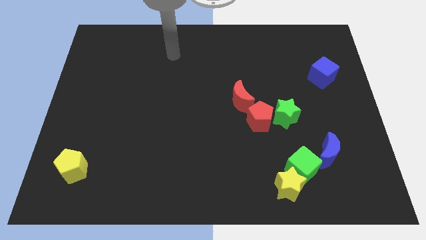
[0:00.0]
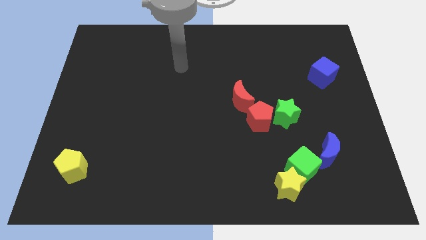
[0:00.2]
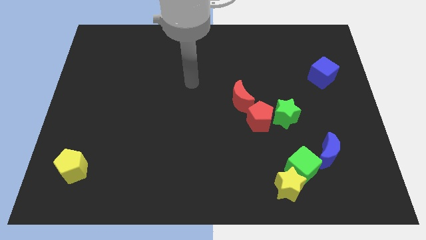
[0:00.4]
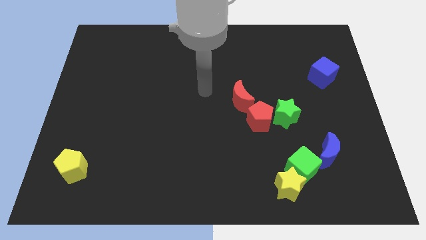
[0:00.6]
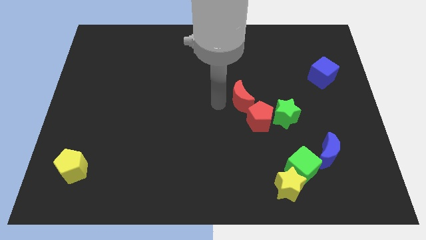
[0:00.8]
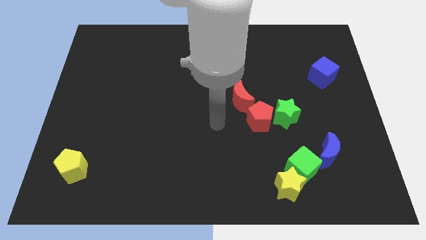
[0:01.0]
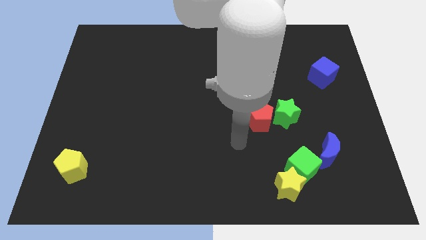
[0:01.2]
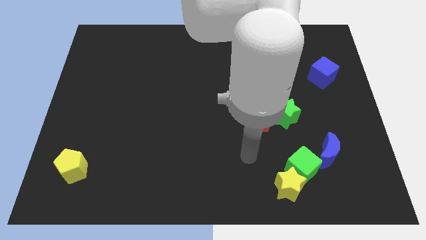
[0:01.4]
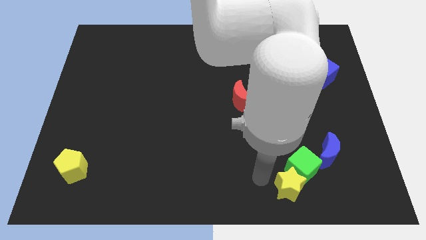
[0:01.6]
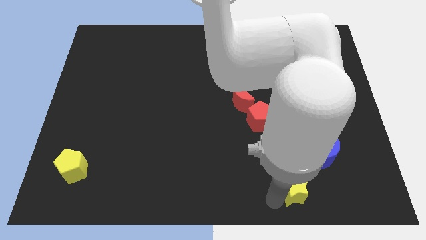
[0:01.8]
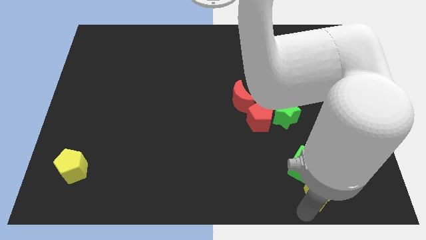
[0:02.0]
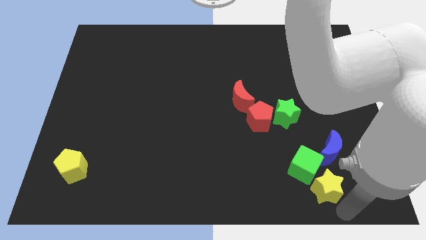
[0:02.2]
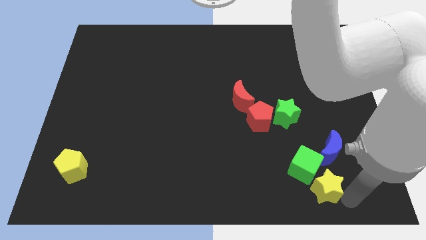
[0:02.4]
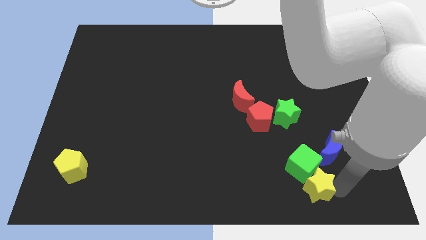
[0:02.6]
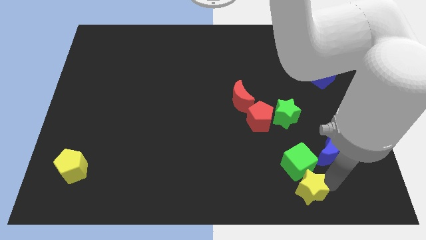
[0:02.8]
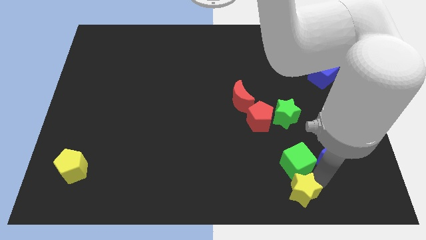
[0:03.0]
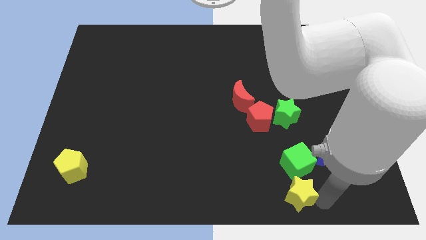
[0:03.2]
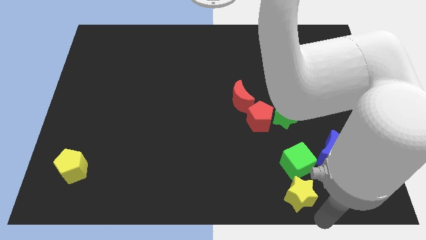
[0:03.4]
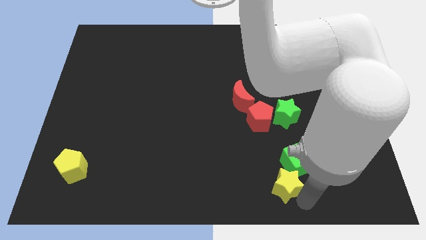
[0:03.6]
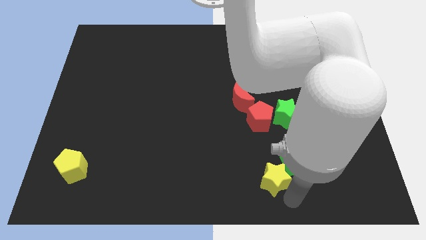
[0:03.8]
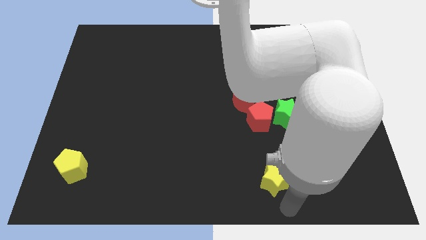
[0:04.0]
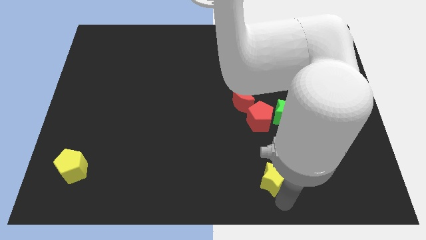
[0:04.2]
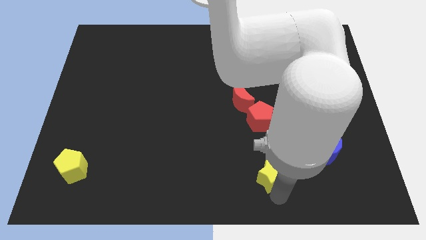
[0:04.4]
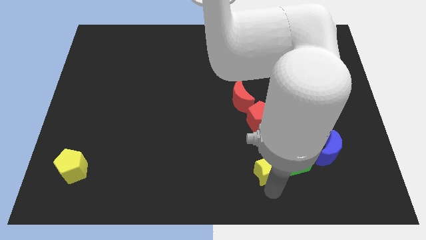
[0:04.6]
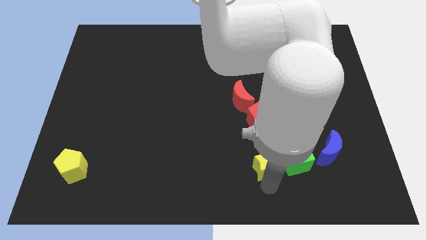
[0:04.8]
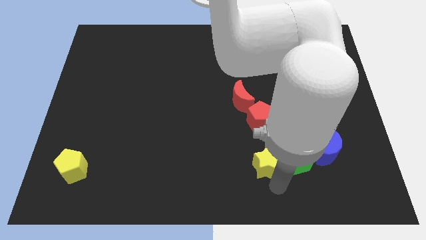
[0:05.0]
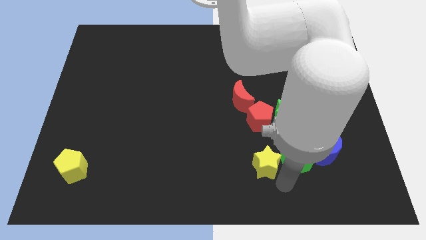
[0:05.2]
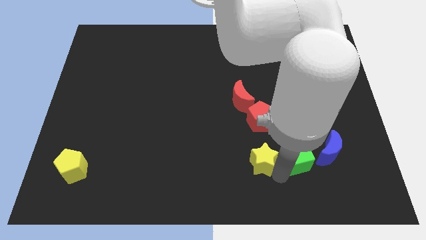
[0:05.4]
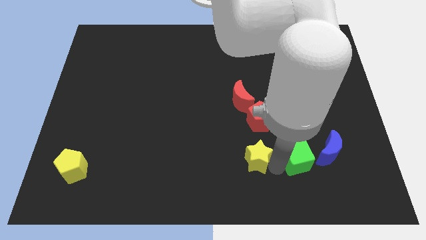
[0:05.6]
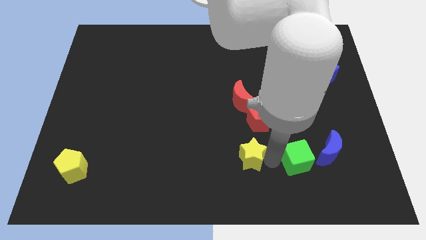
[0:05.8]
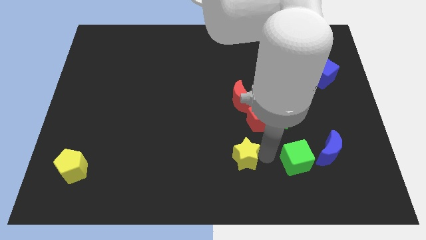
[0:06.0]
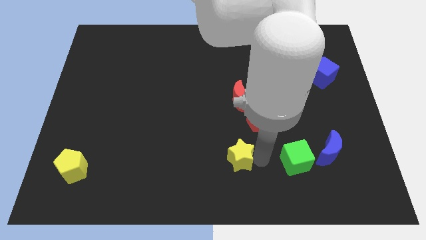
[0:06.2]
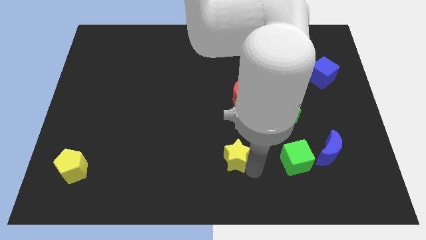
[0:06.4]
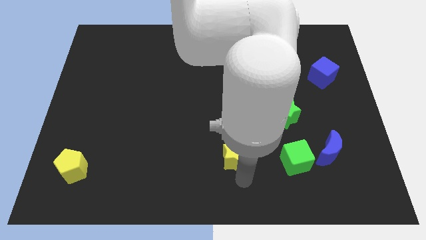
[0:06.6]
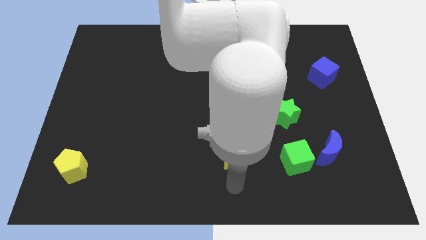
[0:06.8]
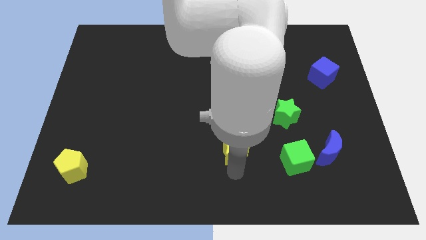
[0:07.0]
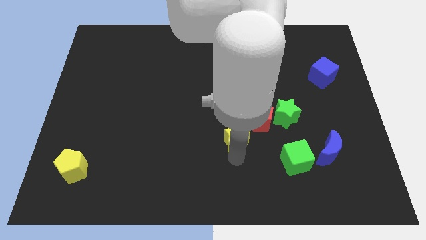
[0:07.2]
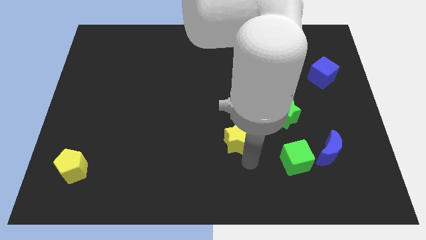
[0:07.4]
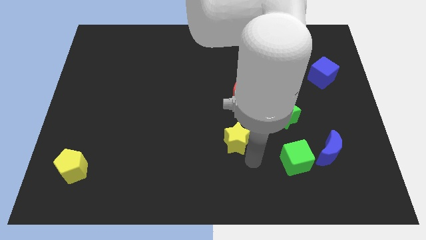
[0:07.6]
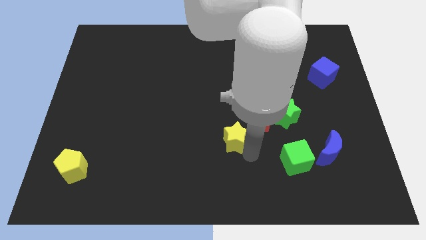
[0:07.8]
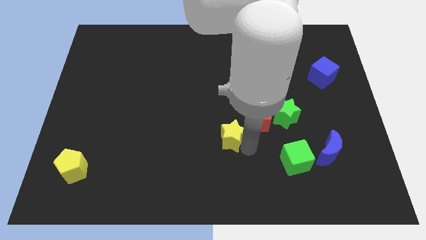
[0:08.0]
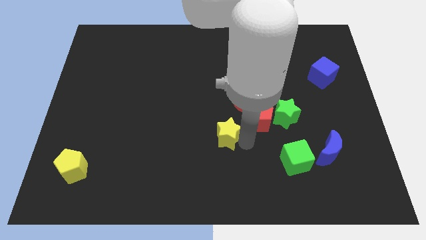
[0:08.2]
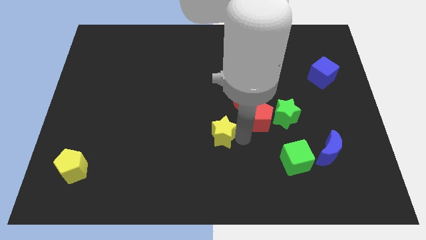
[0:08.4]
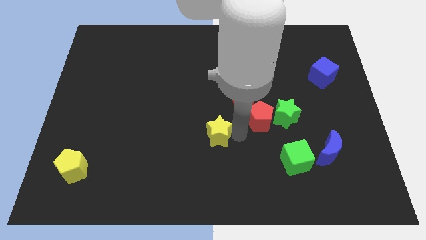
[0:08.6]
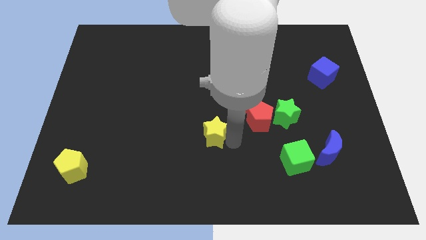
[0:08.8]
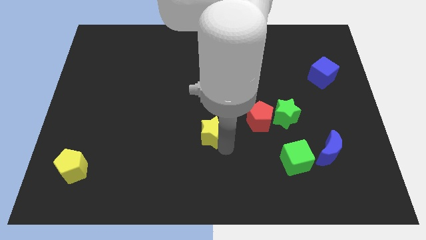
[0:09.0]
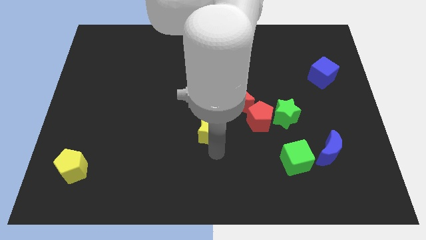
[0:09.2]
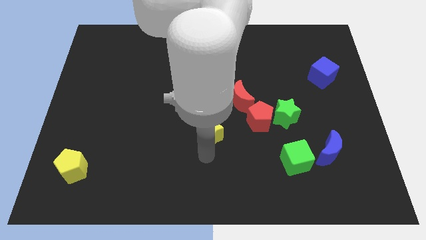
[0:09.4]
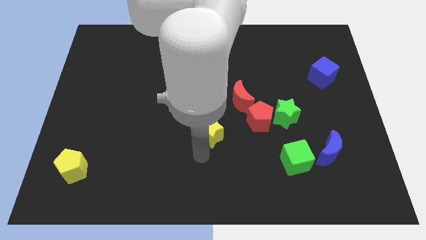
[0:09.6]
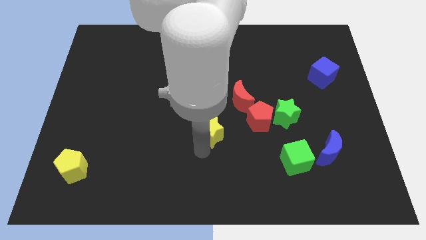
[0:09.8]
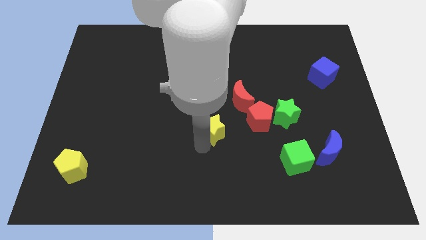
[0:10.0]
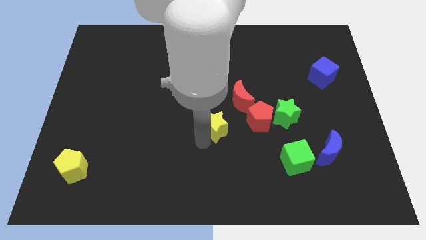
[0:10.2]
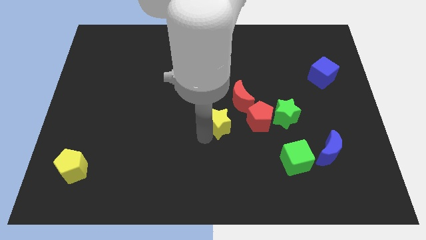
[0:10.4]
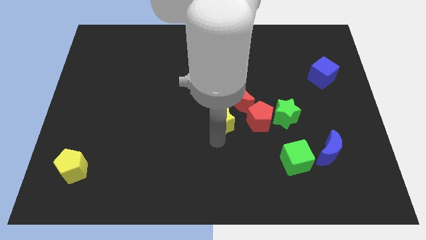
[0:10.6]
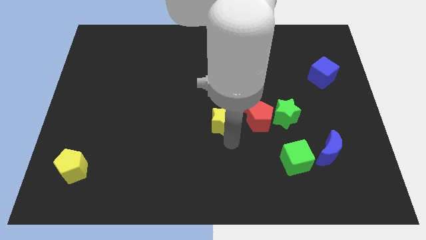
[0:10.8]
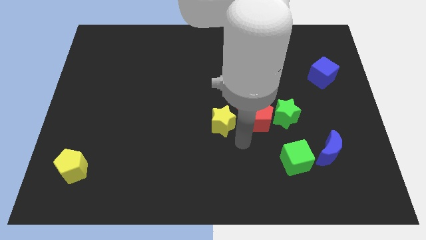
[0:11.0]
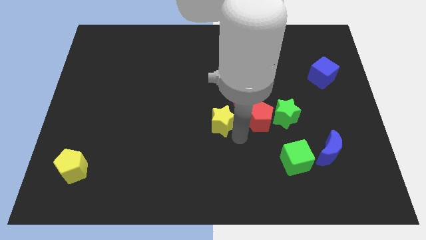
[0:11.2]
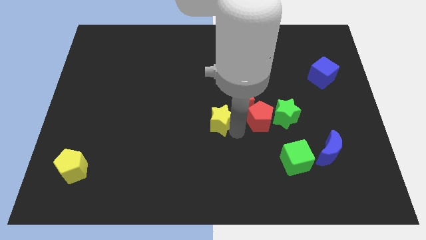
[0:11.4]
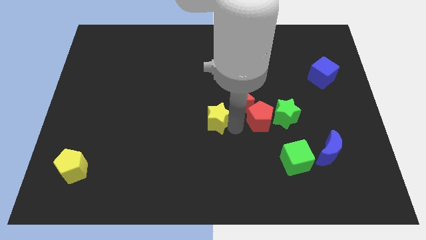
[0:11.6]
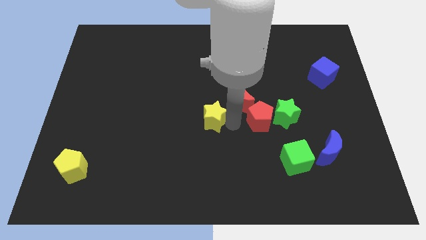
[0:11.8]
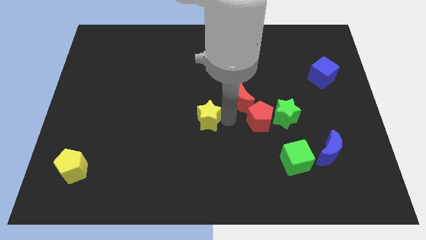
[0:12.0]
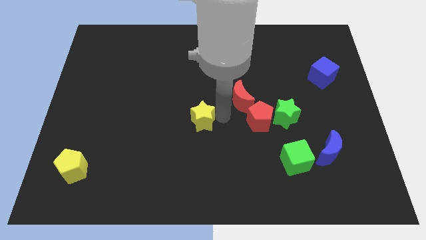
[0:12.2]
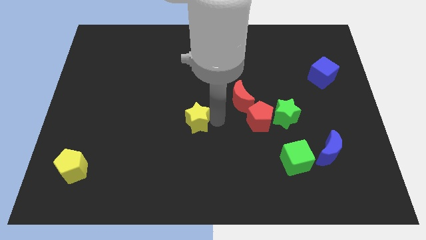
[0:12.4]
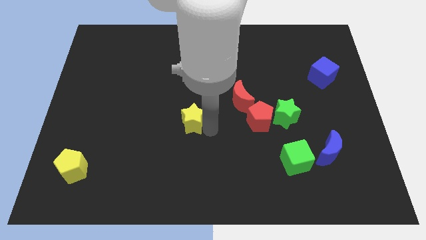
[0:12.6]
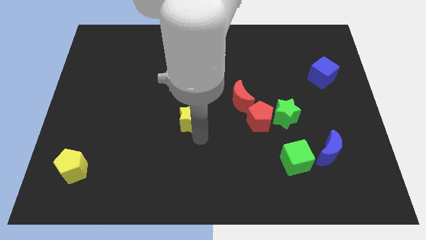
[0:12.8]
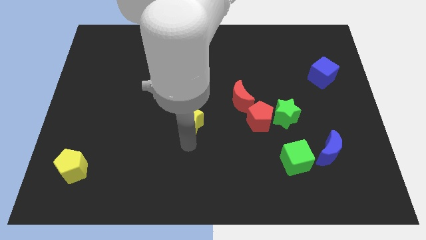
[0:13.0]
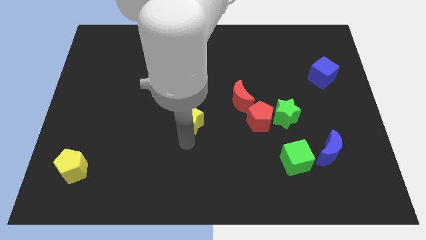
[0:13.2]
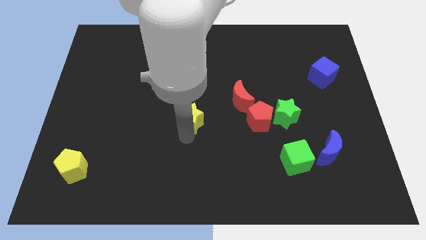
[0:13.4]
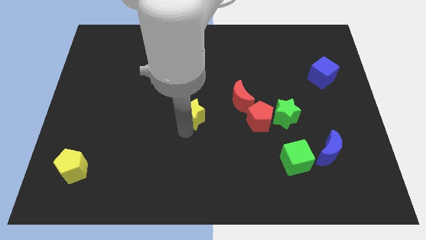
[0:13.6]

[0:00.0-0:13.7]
slide the yellow star to the left of the red moon

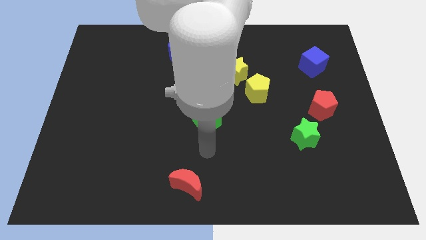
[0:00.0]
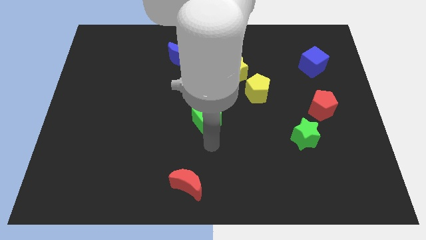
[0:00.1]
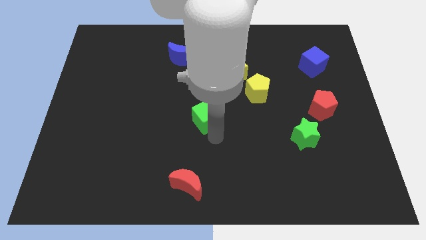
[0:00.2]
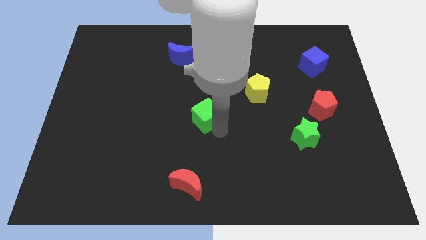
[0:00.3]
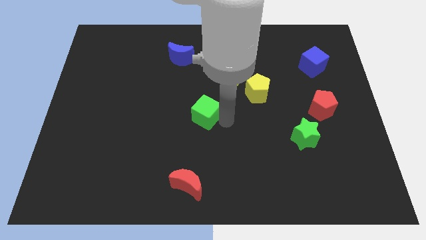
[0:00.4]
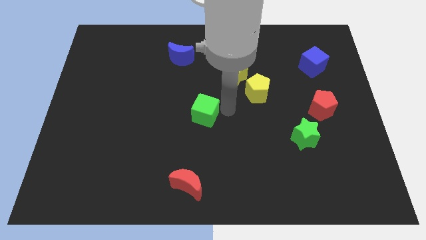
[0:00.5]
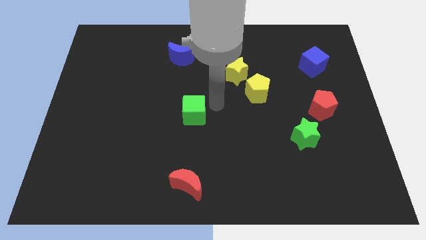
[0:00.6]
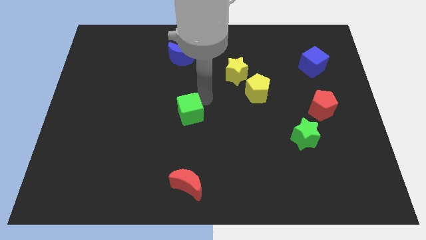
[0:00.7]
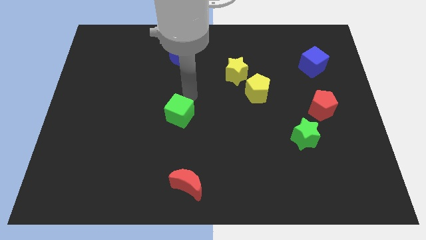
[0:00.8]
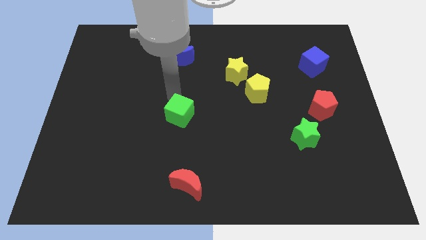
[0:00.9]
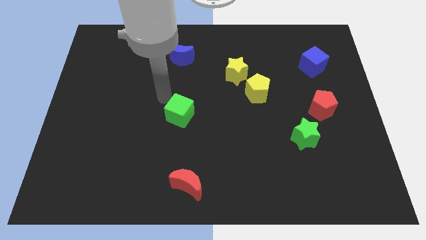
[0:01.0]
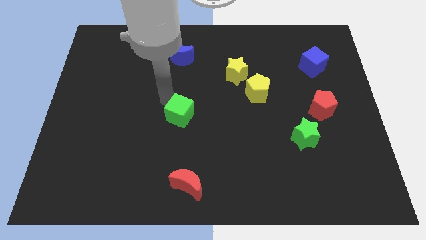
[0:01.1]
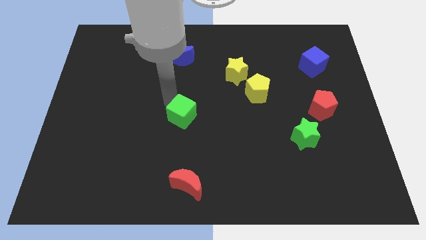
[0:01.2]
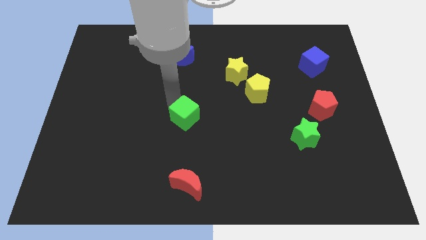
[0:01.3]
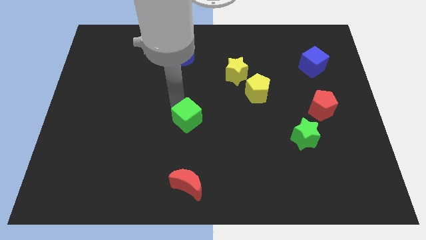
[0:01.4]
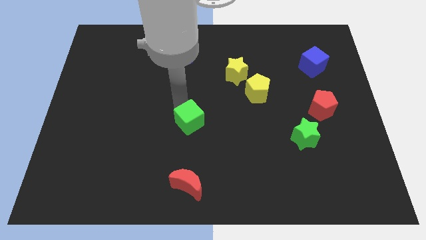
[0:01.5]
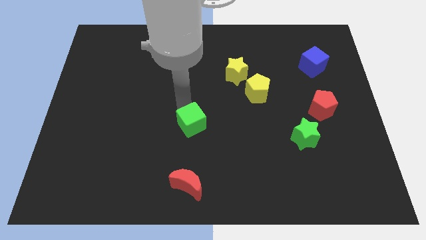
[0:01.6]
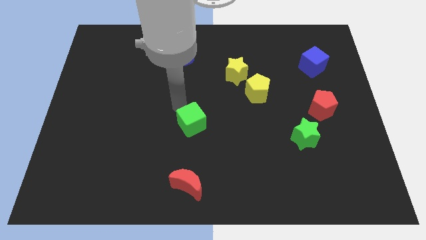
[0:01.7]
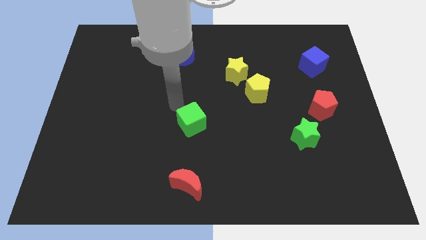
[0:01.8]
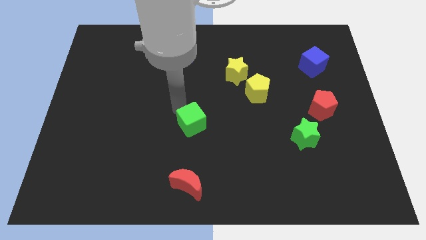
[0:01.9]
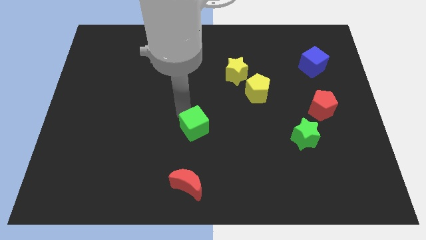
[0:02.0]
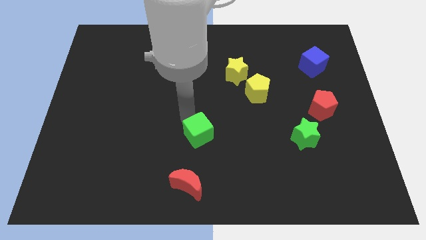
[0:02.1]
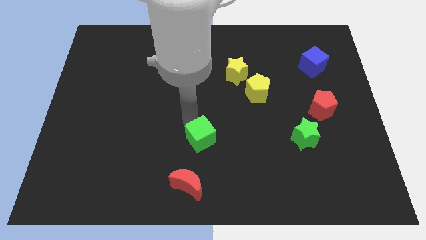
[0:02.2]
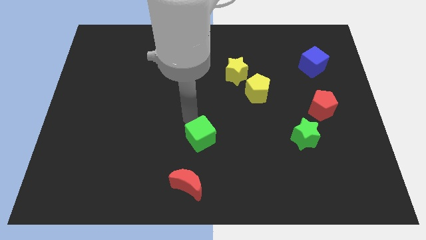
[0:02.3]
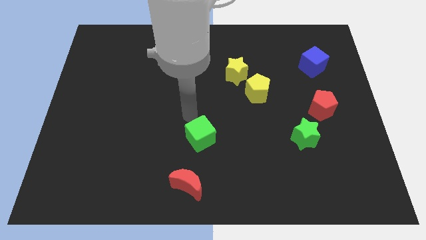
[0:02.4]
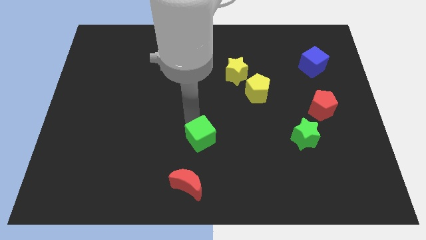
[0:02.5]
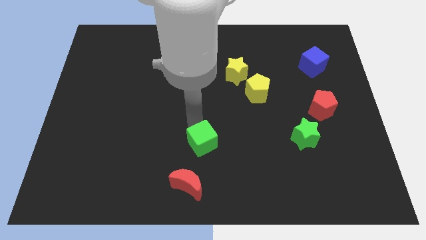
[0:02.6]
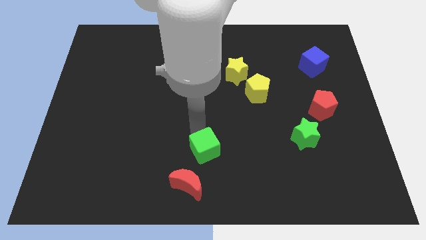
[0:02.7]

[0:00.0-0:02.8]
slide the green cube to the top right side of the red moon
